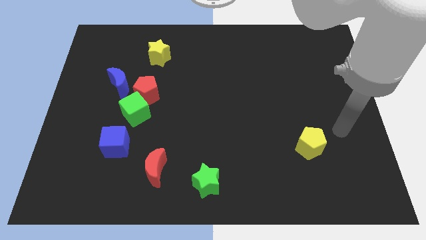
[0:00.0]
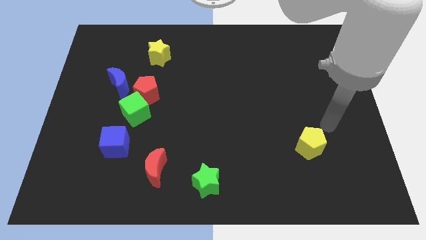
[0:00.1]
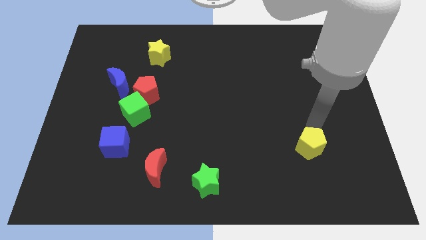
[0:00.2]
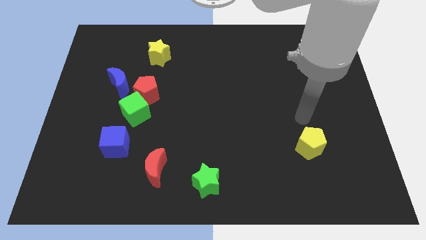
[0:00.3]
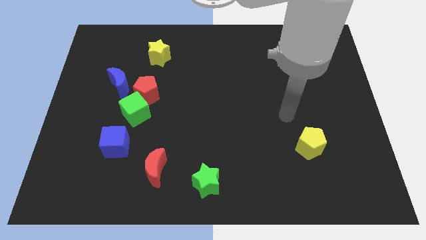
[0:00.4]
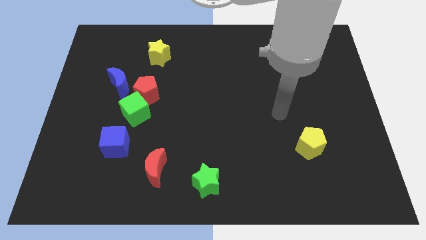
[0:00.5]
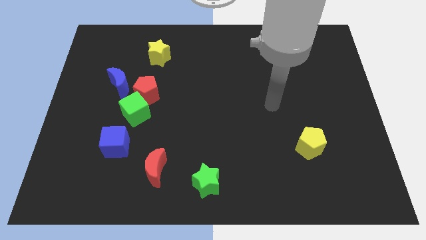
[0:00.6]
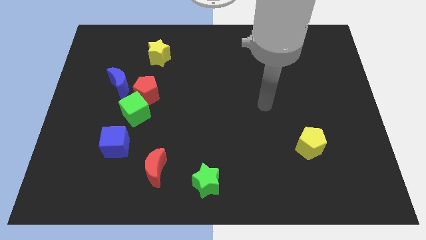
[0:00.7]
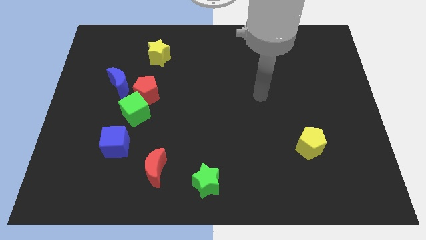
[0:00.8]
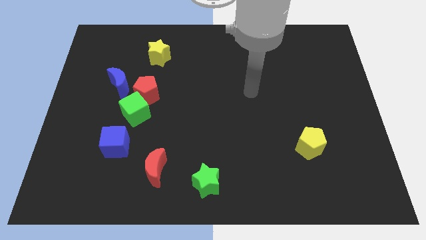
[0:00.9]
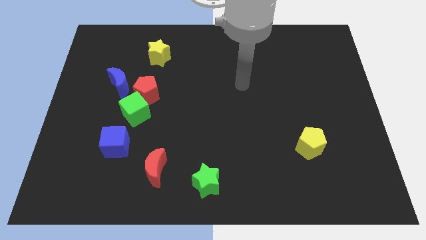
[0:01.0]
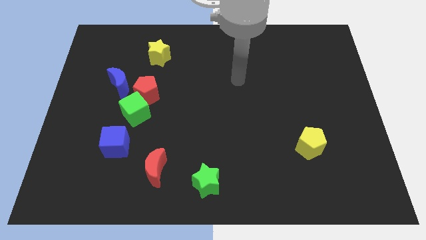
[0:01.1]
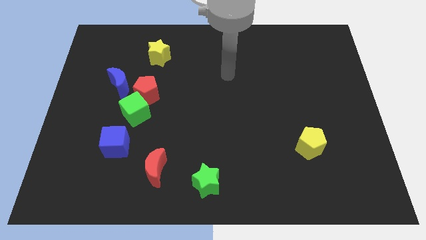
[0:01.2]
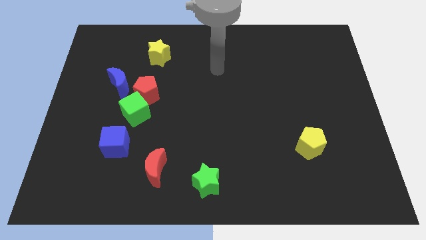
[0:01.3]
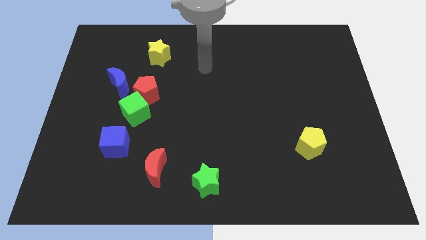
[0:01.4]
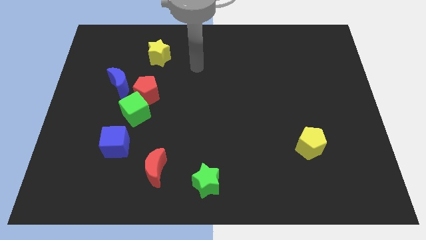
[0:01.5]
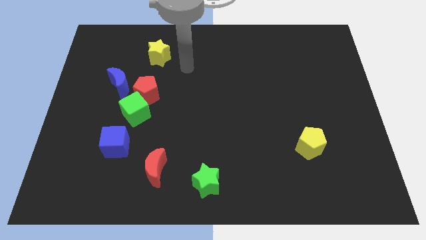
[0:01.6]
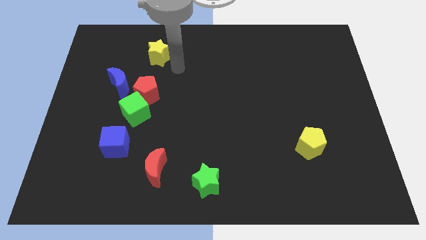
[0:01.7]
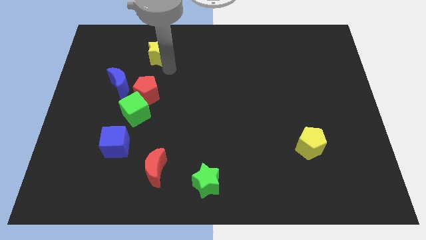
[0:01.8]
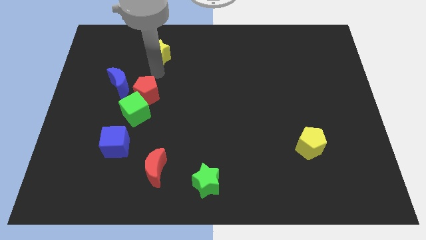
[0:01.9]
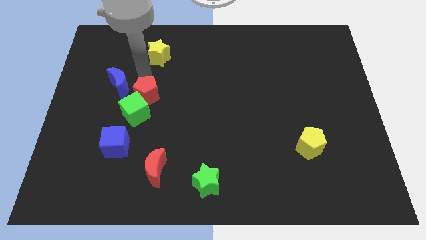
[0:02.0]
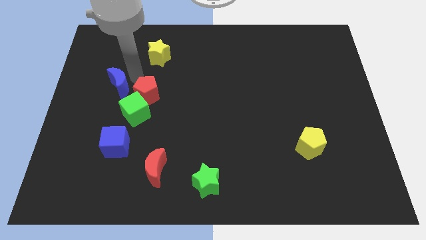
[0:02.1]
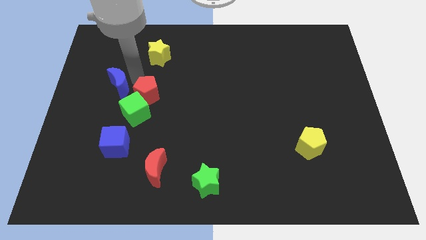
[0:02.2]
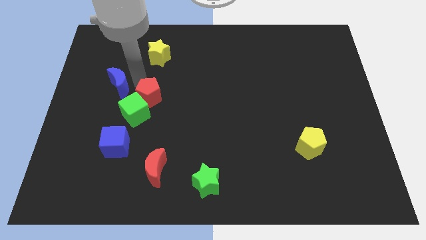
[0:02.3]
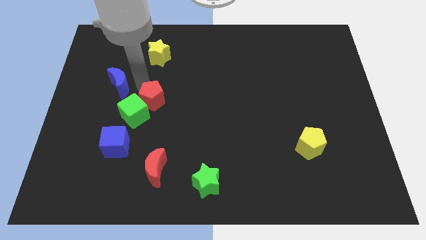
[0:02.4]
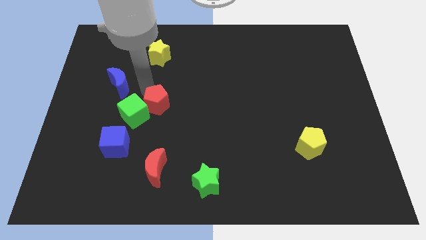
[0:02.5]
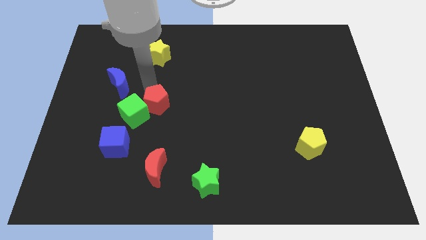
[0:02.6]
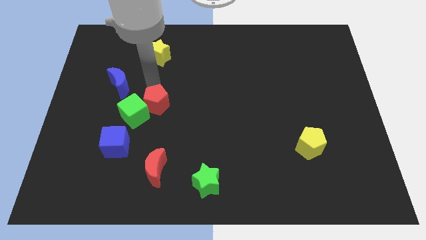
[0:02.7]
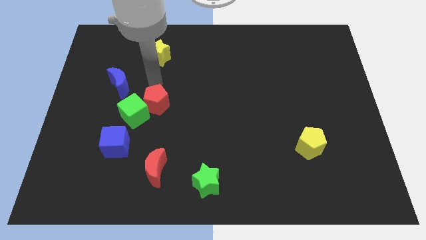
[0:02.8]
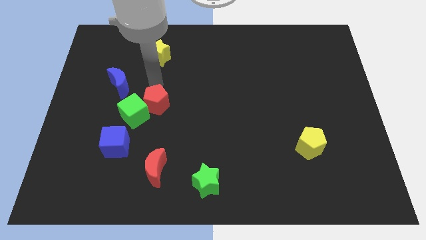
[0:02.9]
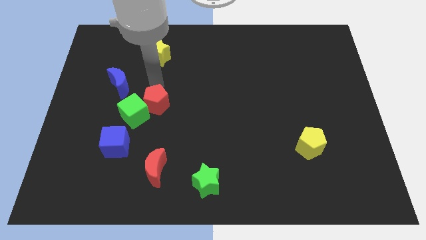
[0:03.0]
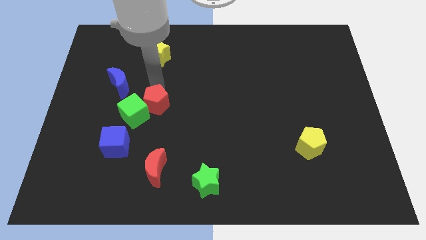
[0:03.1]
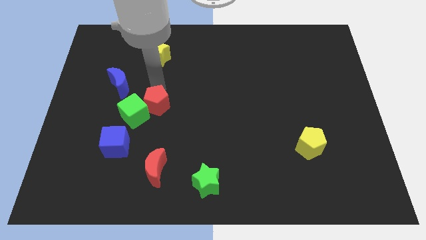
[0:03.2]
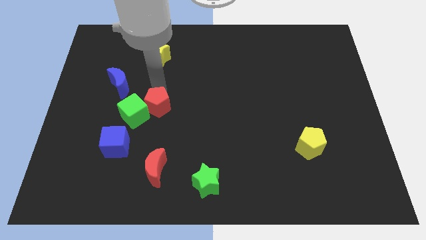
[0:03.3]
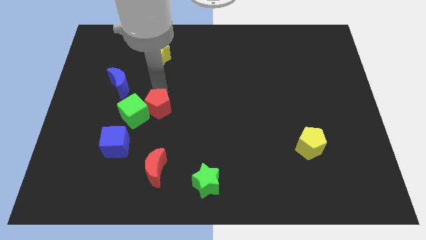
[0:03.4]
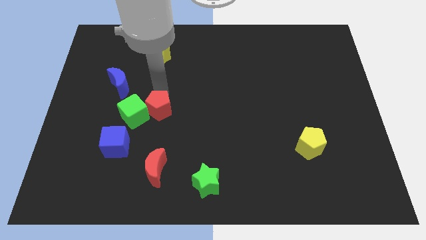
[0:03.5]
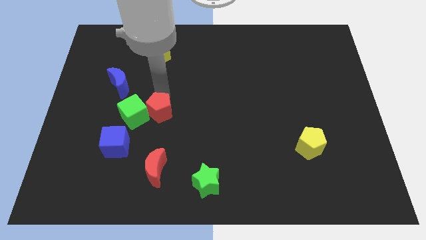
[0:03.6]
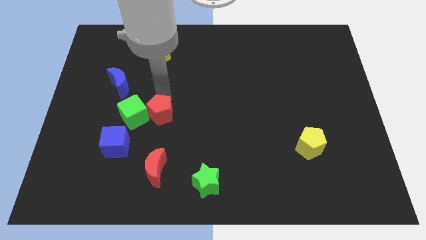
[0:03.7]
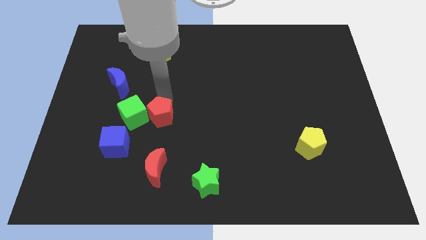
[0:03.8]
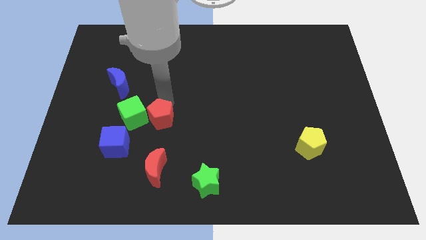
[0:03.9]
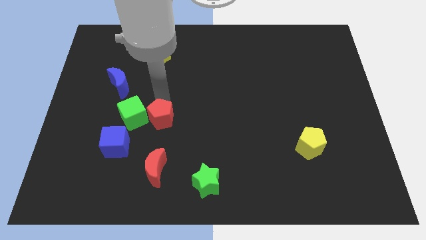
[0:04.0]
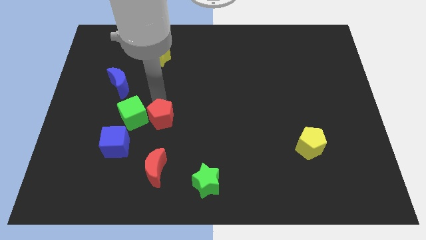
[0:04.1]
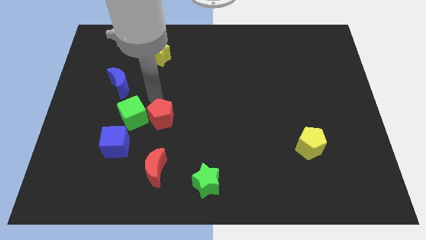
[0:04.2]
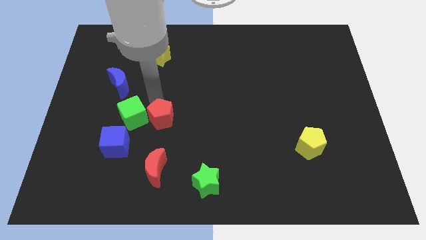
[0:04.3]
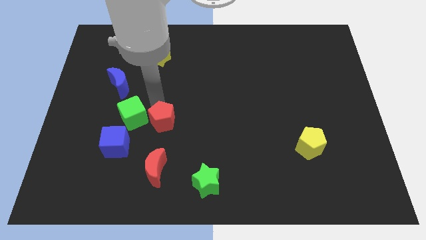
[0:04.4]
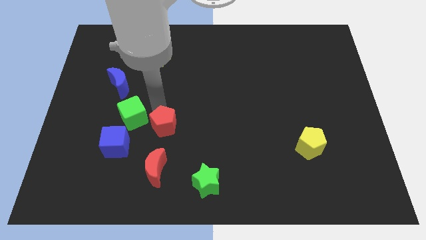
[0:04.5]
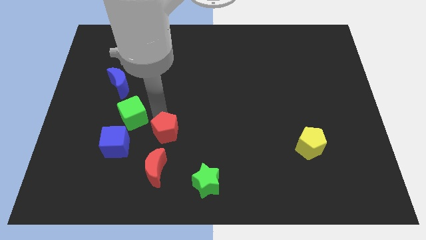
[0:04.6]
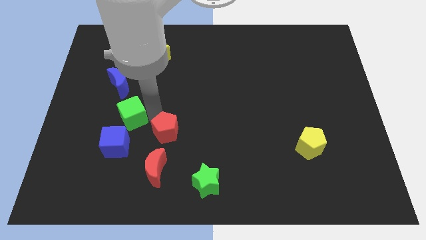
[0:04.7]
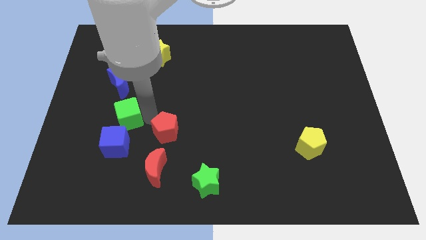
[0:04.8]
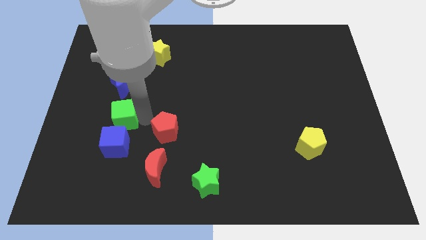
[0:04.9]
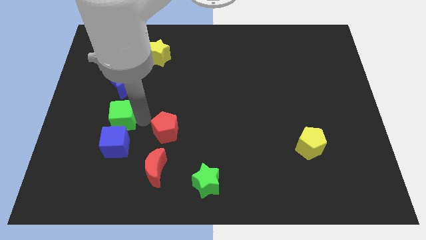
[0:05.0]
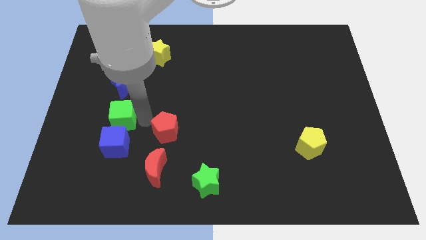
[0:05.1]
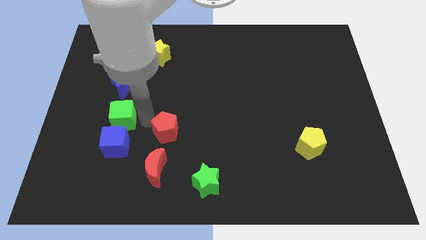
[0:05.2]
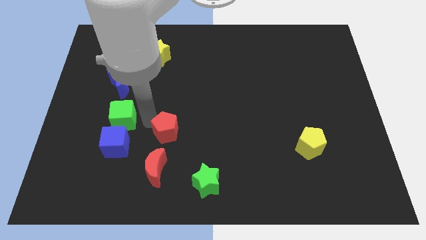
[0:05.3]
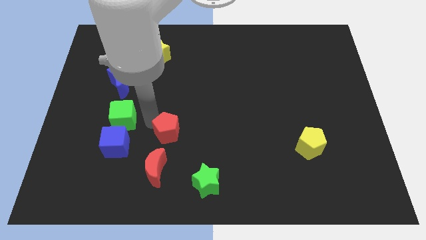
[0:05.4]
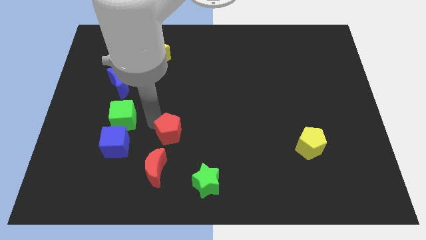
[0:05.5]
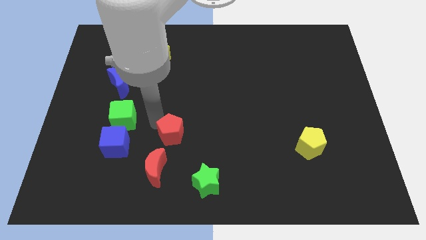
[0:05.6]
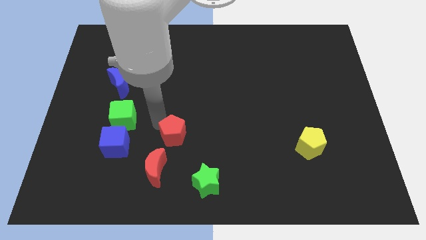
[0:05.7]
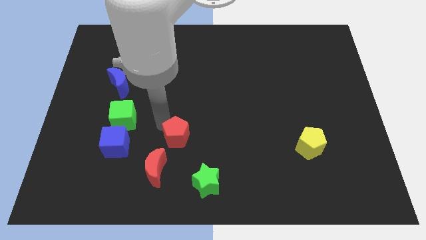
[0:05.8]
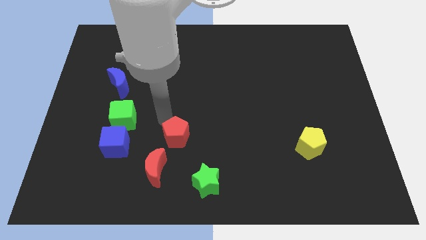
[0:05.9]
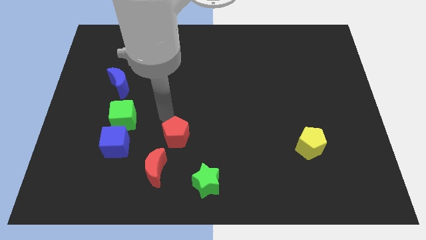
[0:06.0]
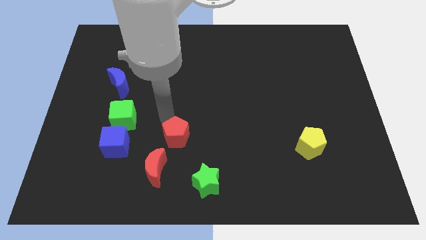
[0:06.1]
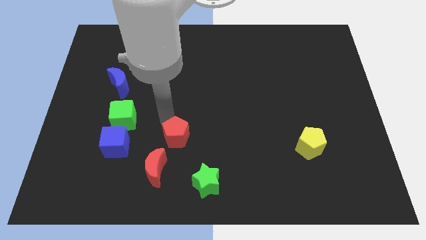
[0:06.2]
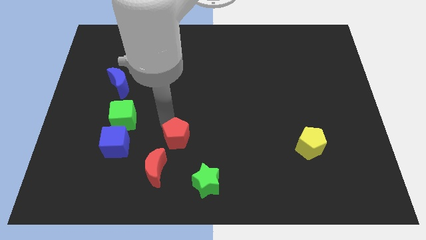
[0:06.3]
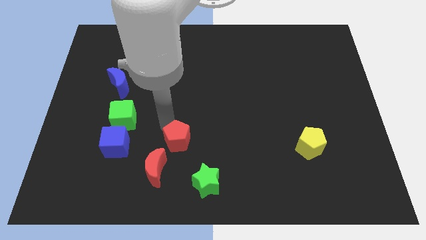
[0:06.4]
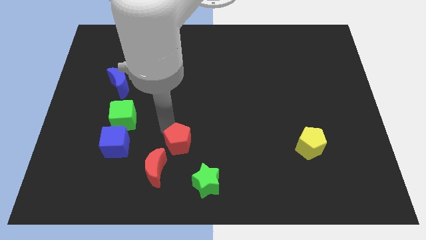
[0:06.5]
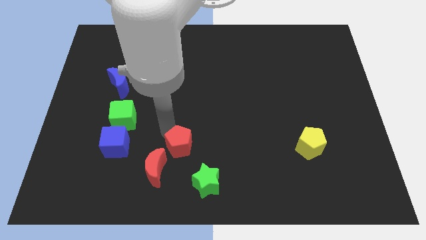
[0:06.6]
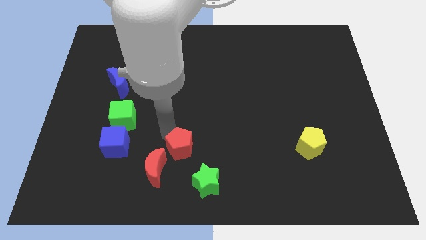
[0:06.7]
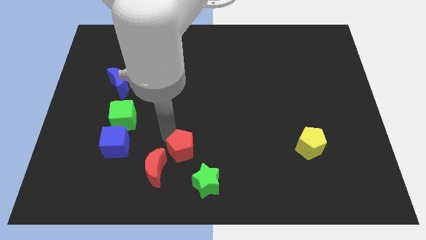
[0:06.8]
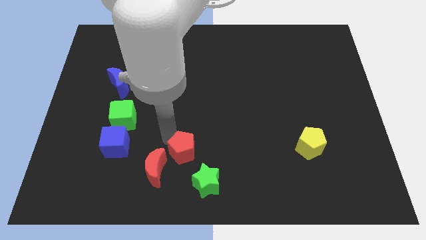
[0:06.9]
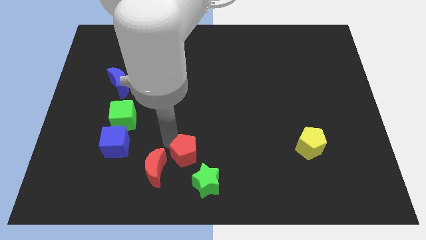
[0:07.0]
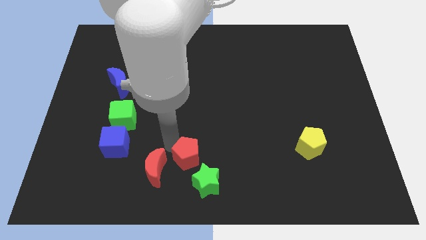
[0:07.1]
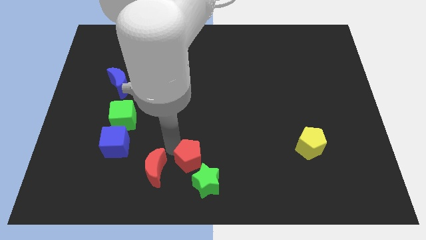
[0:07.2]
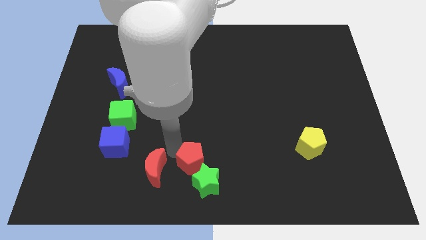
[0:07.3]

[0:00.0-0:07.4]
put the red pentagon towards the green star
